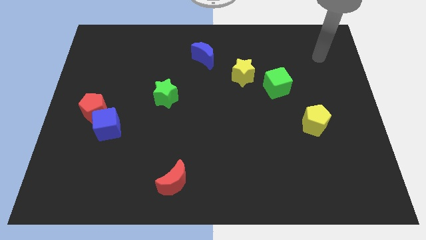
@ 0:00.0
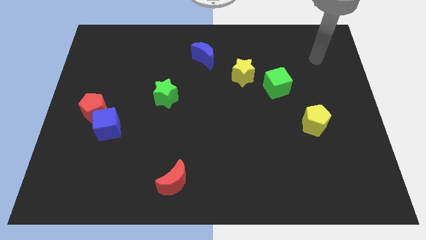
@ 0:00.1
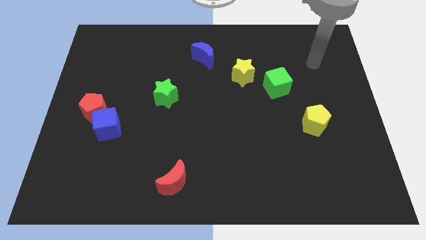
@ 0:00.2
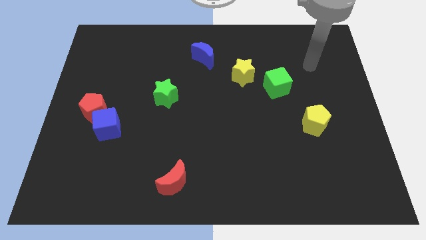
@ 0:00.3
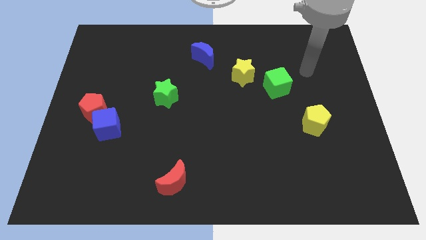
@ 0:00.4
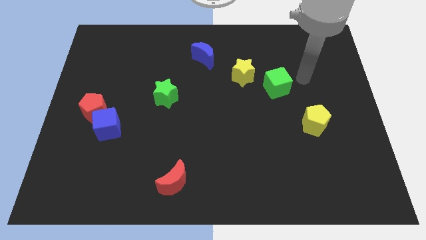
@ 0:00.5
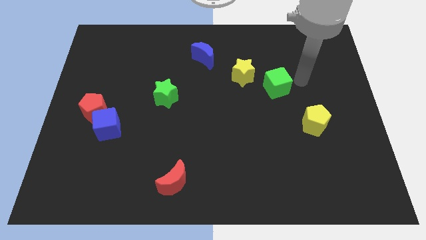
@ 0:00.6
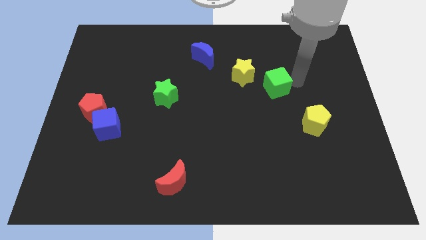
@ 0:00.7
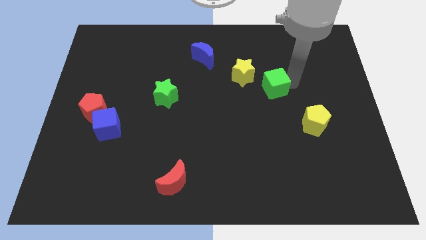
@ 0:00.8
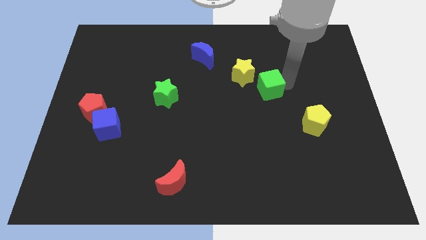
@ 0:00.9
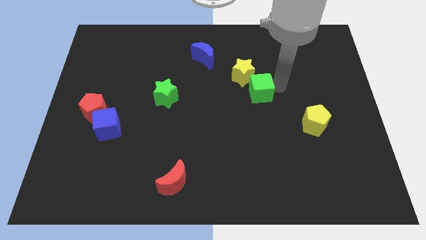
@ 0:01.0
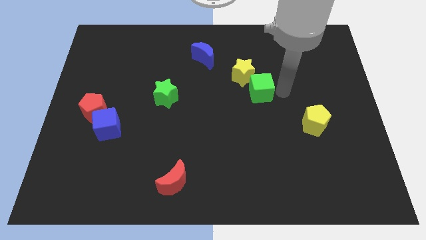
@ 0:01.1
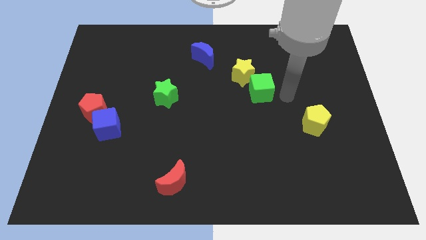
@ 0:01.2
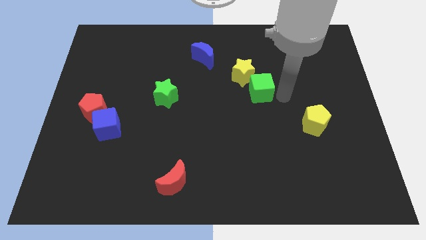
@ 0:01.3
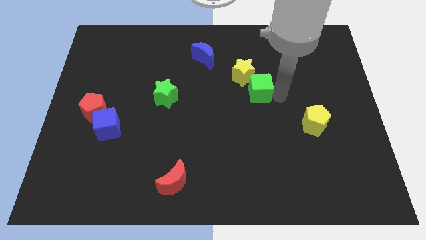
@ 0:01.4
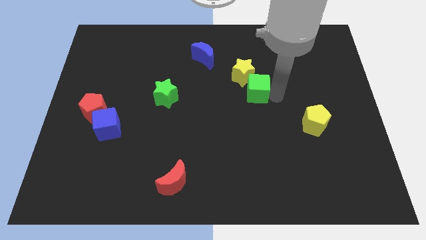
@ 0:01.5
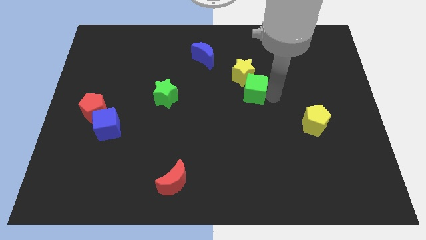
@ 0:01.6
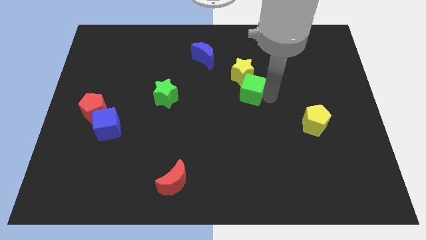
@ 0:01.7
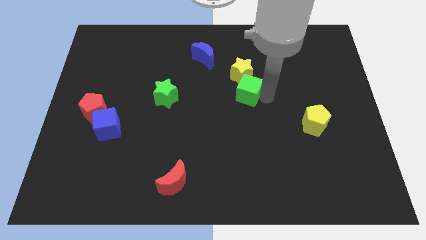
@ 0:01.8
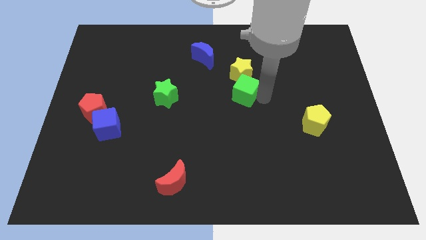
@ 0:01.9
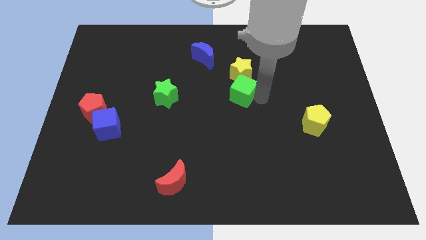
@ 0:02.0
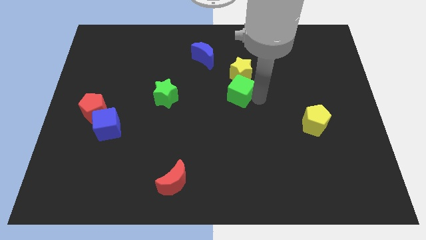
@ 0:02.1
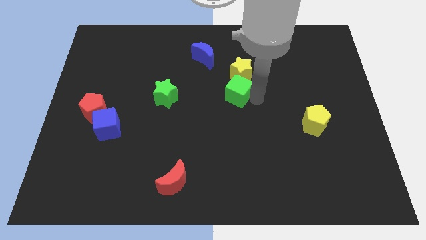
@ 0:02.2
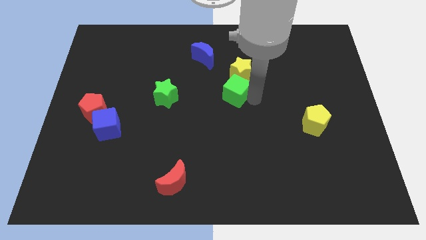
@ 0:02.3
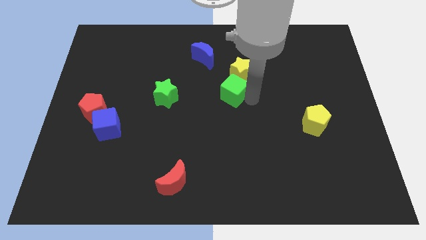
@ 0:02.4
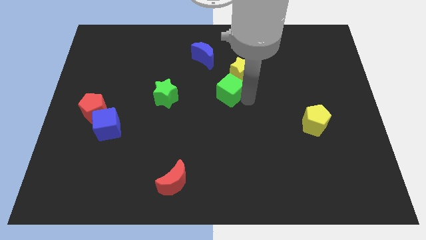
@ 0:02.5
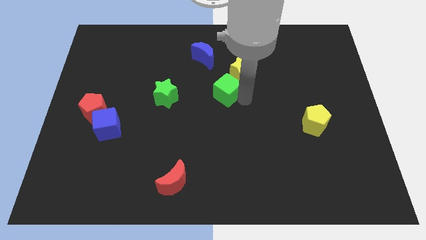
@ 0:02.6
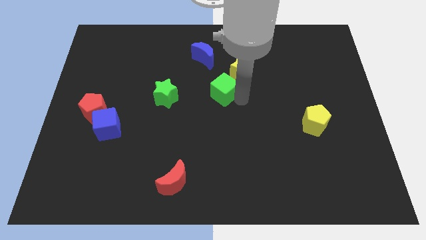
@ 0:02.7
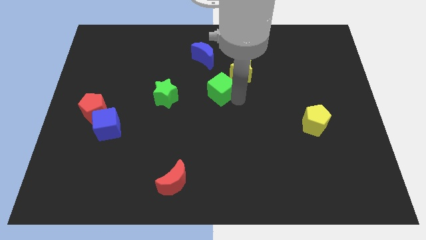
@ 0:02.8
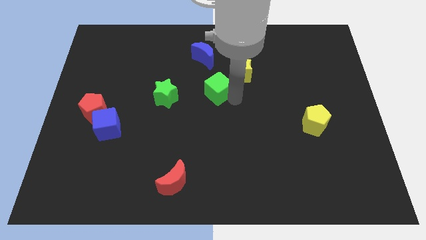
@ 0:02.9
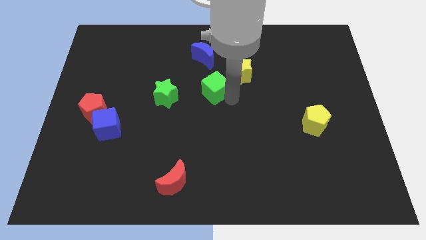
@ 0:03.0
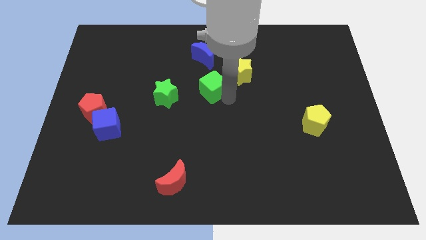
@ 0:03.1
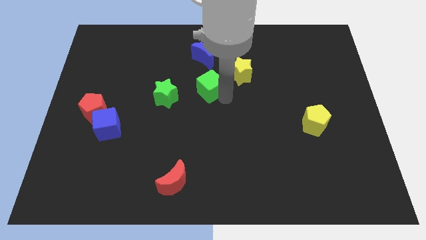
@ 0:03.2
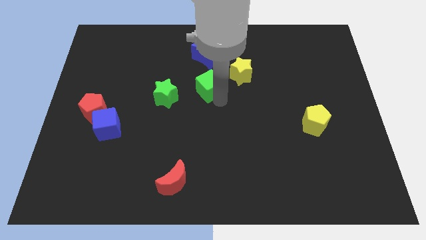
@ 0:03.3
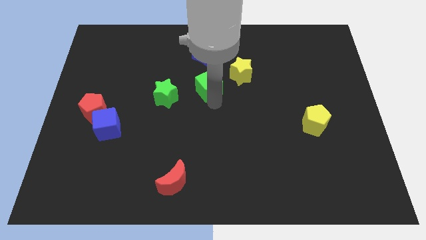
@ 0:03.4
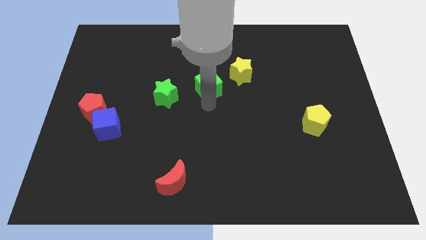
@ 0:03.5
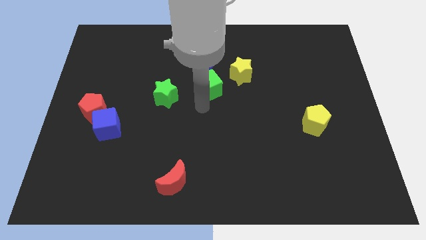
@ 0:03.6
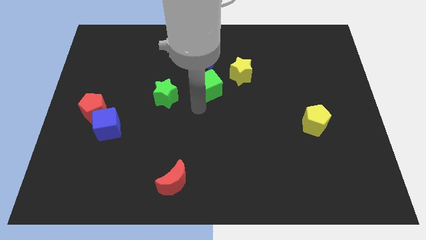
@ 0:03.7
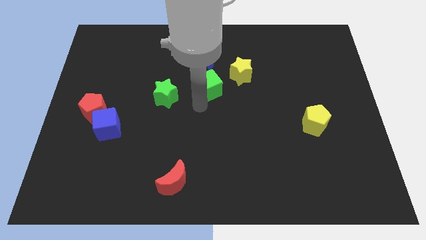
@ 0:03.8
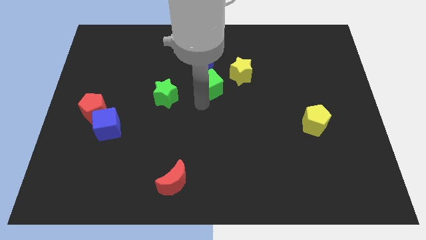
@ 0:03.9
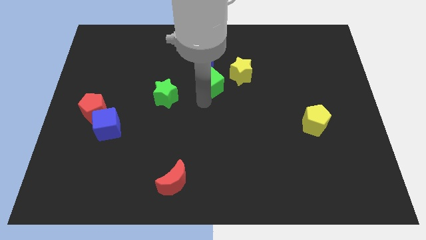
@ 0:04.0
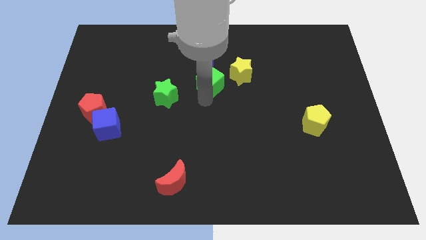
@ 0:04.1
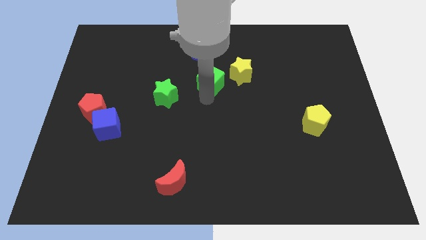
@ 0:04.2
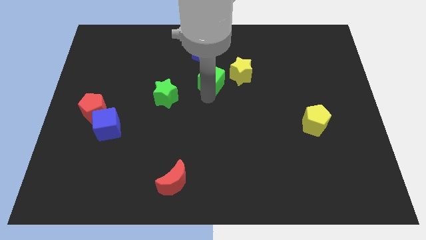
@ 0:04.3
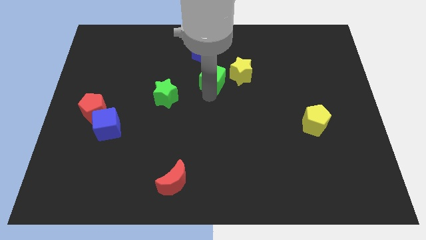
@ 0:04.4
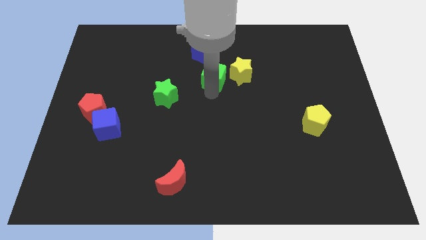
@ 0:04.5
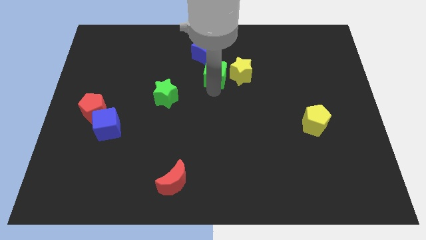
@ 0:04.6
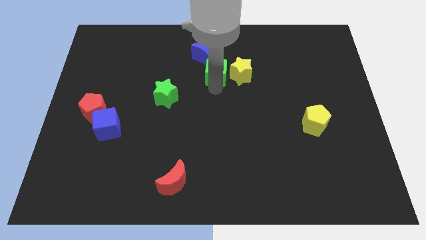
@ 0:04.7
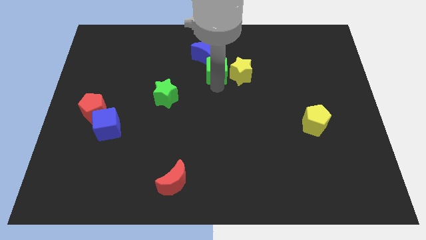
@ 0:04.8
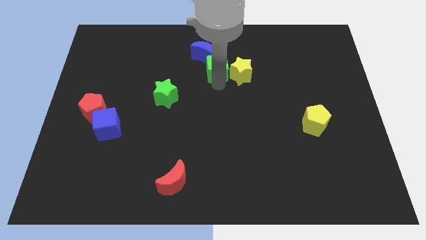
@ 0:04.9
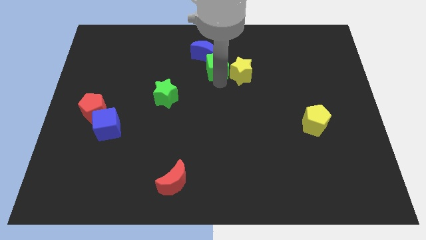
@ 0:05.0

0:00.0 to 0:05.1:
push the green cube to the blue moon

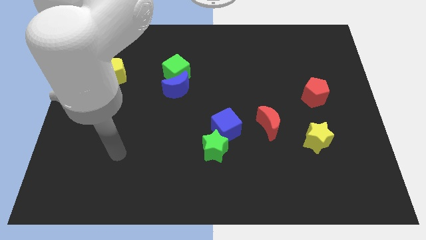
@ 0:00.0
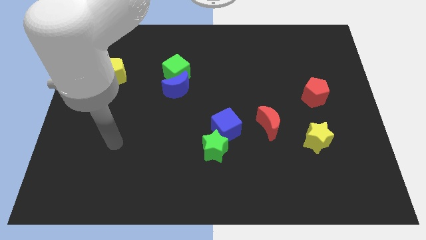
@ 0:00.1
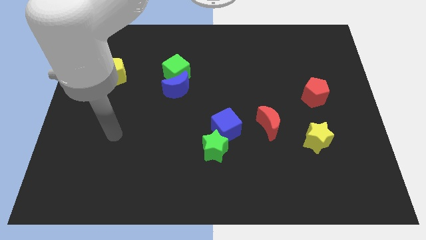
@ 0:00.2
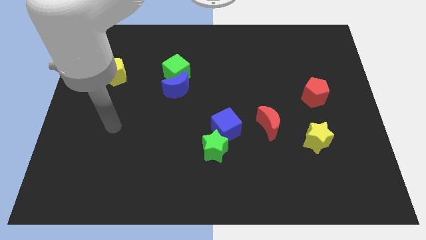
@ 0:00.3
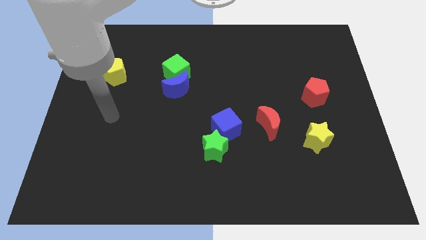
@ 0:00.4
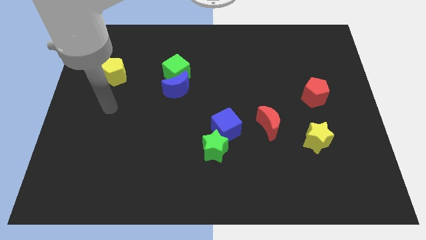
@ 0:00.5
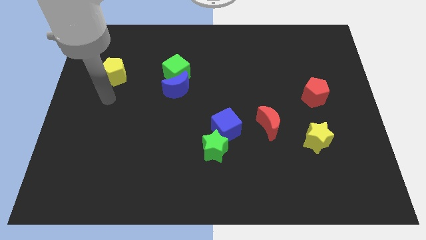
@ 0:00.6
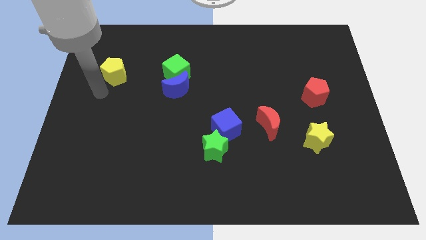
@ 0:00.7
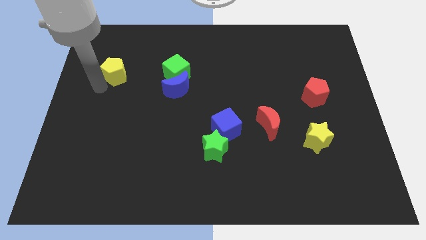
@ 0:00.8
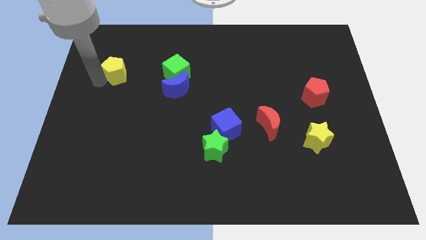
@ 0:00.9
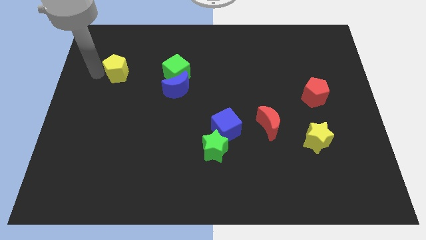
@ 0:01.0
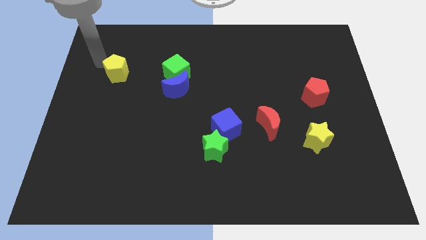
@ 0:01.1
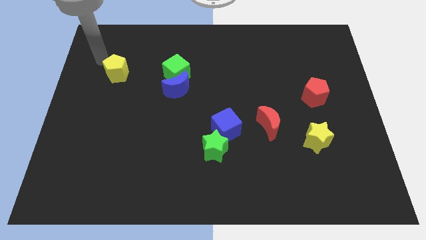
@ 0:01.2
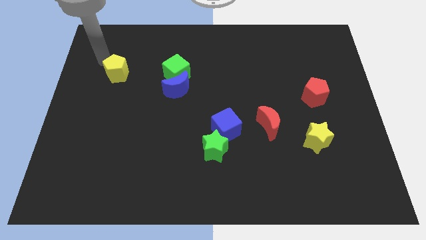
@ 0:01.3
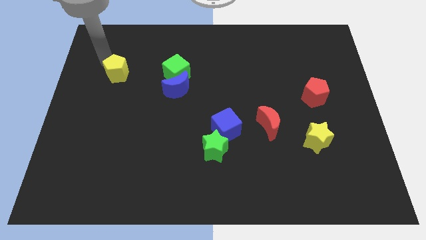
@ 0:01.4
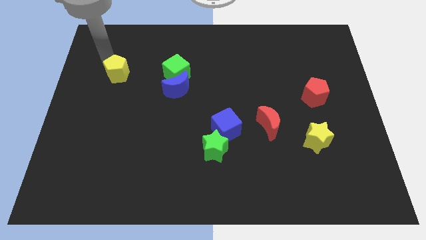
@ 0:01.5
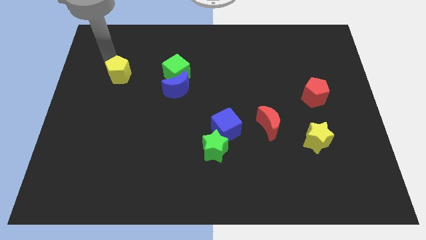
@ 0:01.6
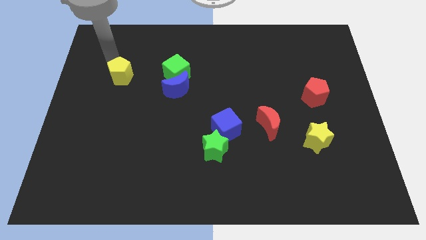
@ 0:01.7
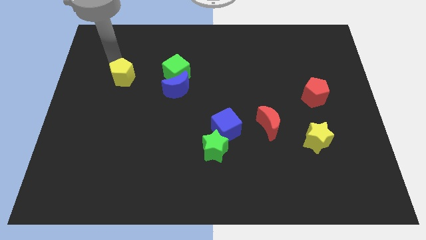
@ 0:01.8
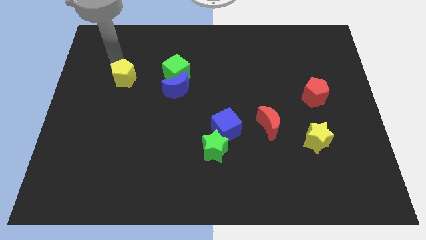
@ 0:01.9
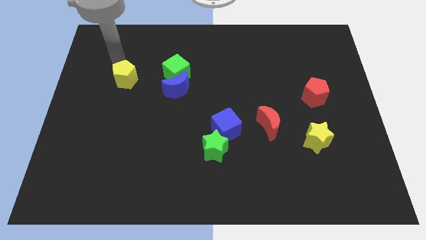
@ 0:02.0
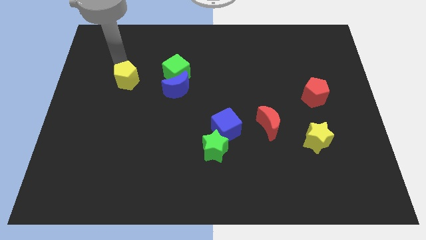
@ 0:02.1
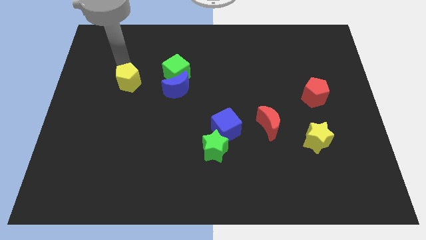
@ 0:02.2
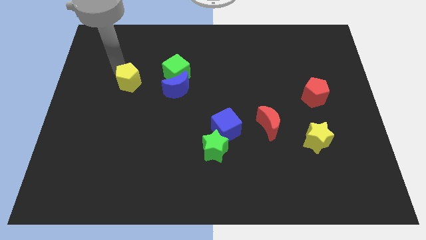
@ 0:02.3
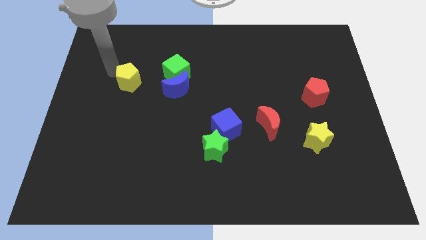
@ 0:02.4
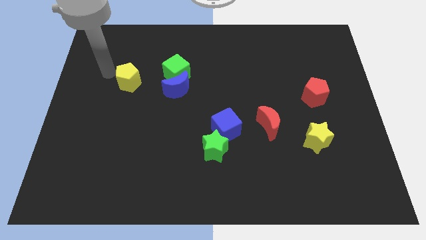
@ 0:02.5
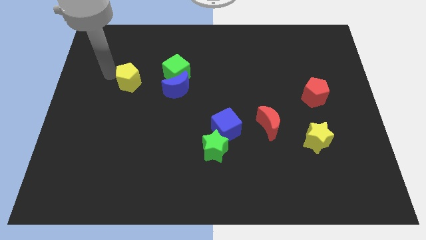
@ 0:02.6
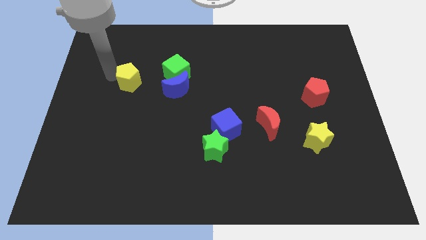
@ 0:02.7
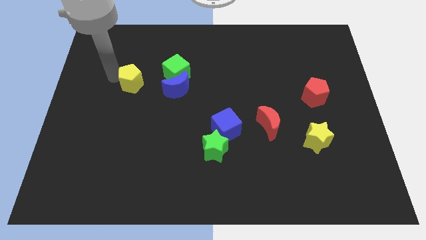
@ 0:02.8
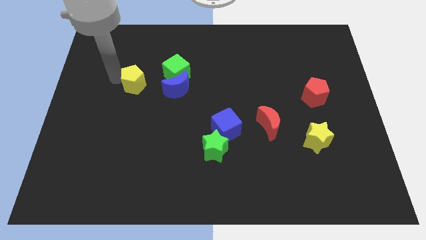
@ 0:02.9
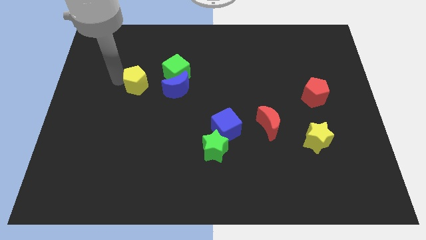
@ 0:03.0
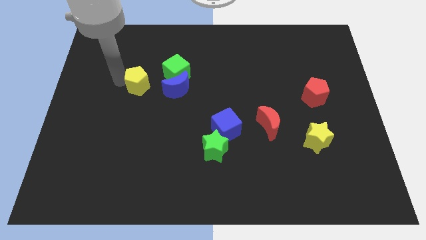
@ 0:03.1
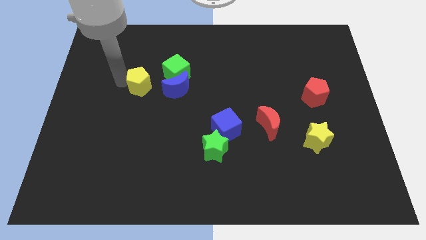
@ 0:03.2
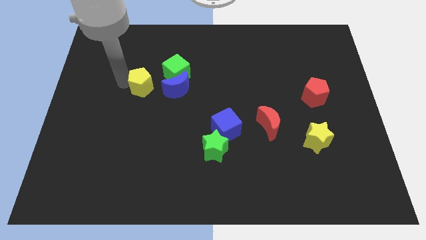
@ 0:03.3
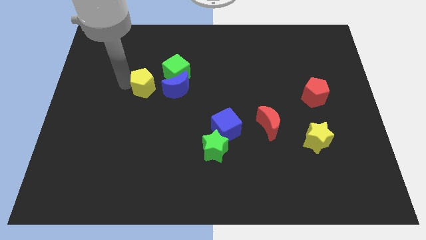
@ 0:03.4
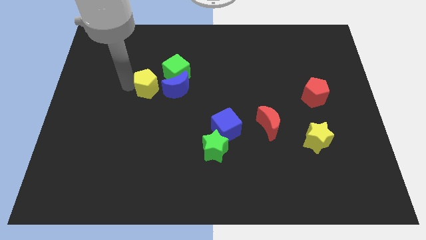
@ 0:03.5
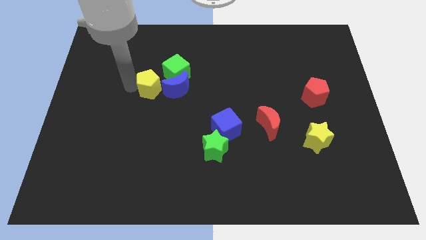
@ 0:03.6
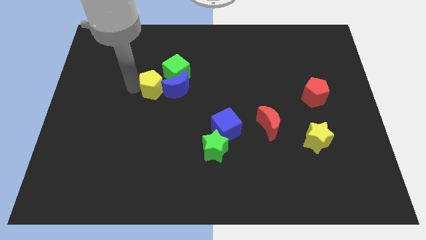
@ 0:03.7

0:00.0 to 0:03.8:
push the yellow pentagon towards the blue moon
